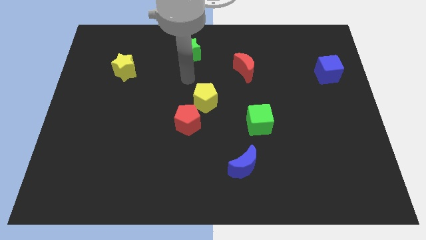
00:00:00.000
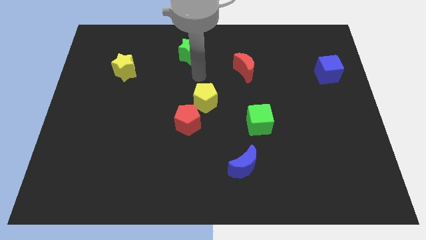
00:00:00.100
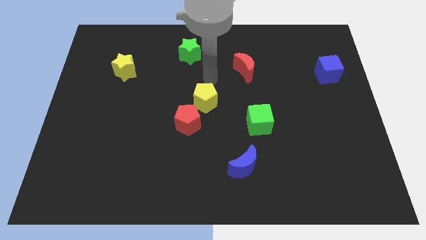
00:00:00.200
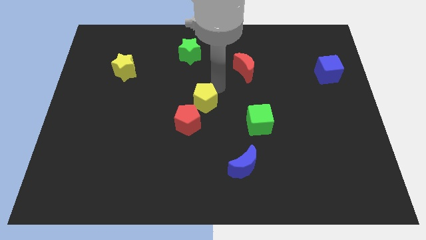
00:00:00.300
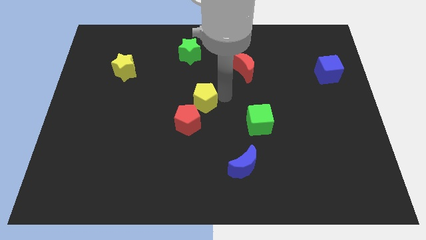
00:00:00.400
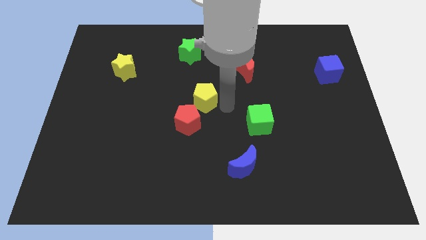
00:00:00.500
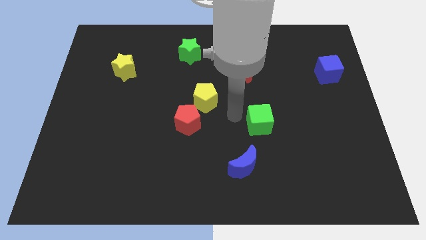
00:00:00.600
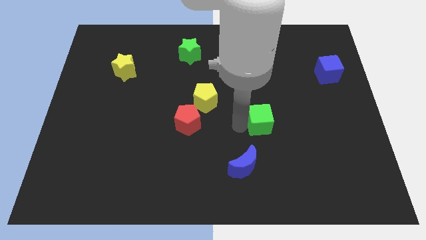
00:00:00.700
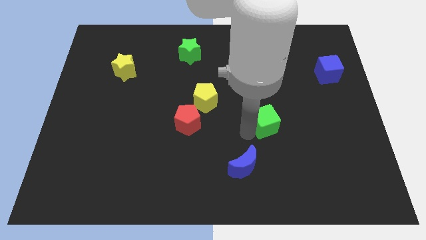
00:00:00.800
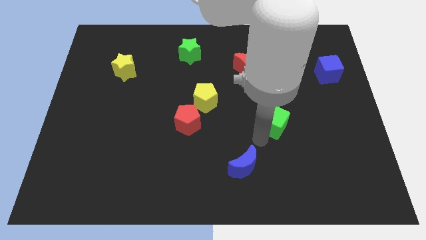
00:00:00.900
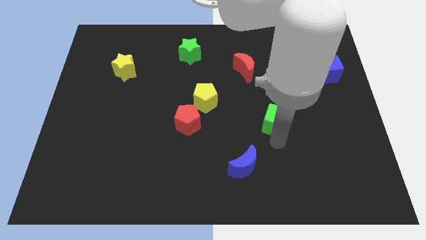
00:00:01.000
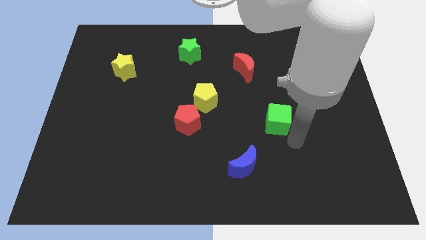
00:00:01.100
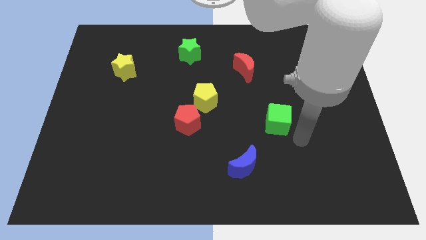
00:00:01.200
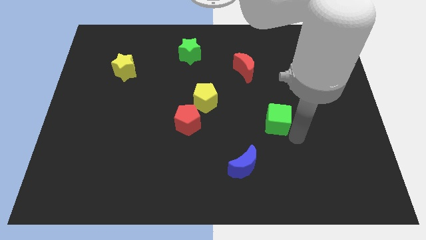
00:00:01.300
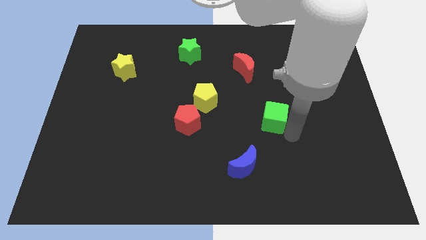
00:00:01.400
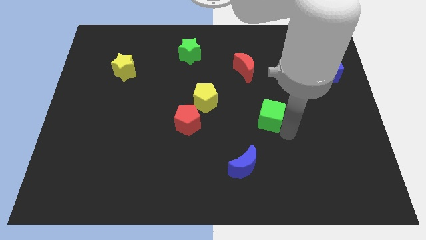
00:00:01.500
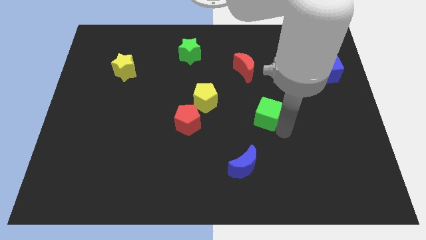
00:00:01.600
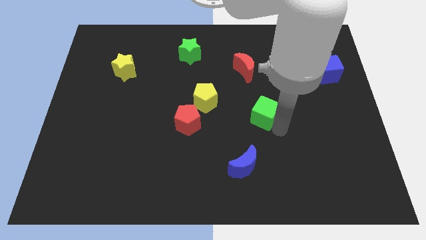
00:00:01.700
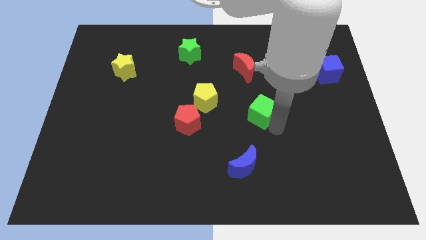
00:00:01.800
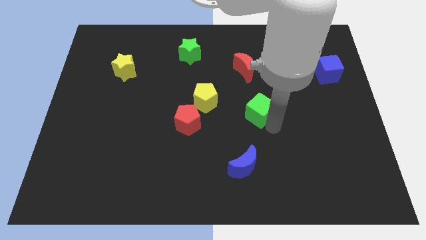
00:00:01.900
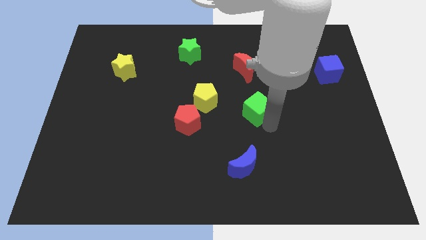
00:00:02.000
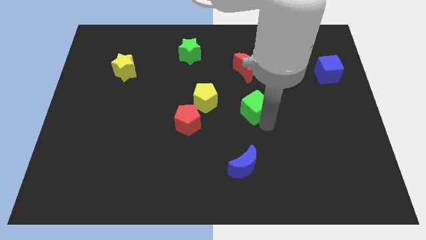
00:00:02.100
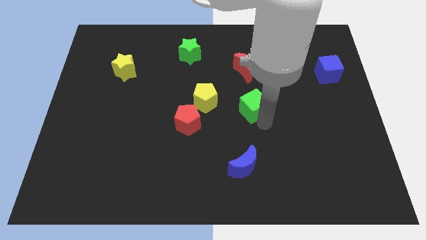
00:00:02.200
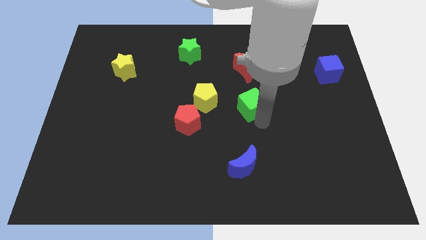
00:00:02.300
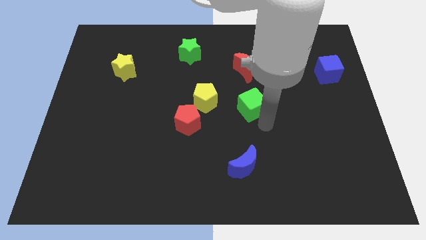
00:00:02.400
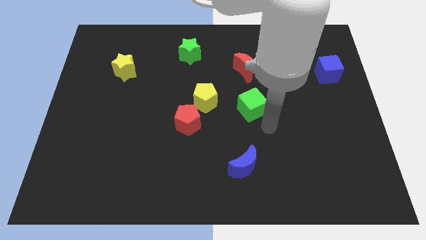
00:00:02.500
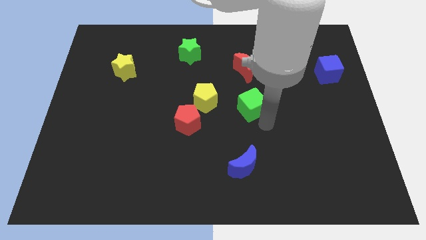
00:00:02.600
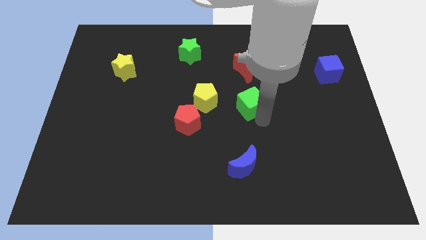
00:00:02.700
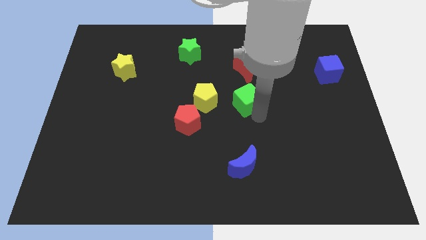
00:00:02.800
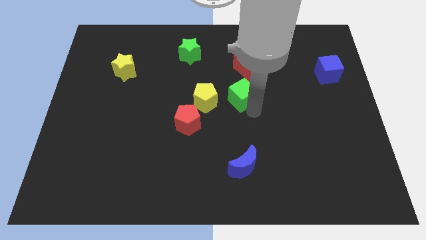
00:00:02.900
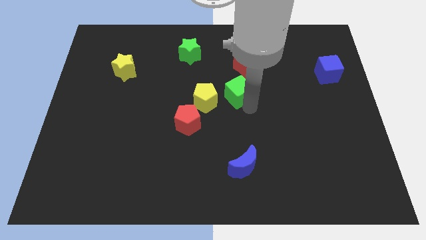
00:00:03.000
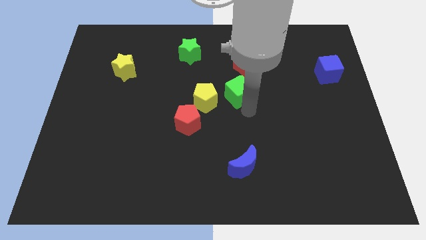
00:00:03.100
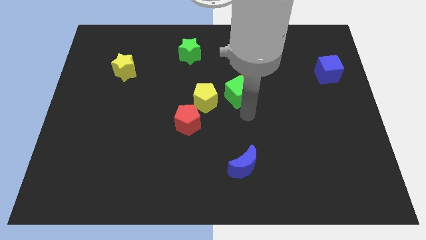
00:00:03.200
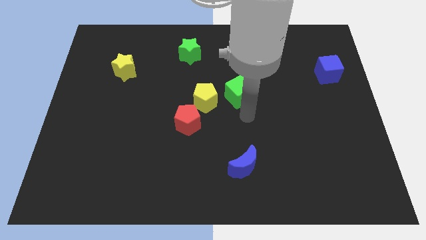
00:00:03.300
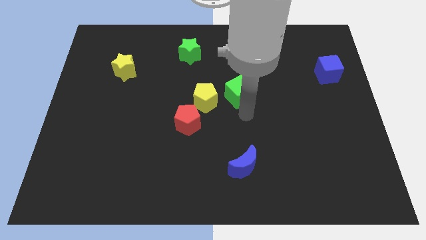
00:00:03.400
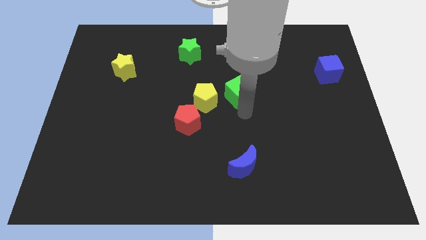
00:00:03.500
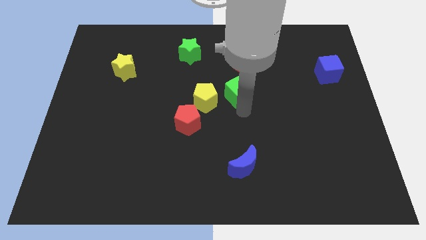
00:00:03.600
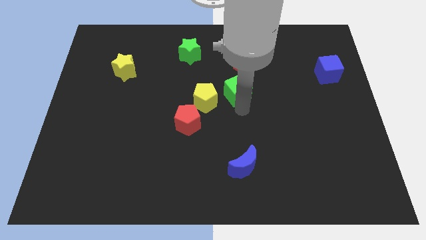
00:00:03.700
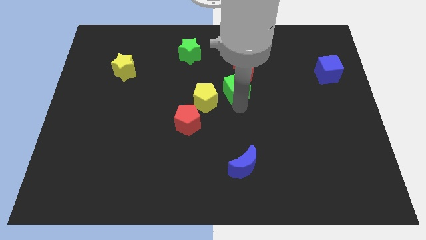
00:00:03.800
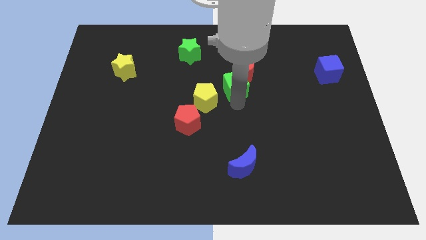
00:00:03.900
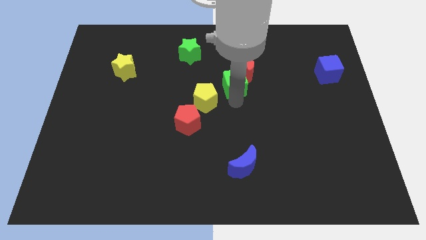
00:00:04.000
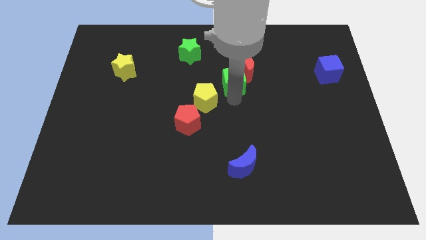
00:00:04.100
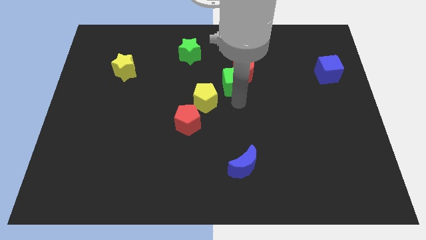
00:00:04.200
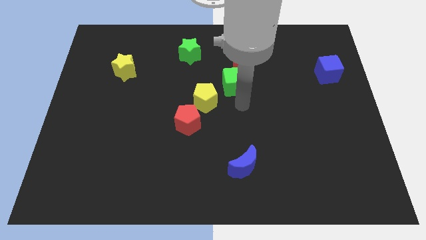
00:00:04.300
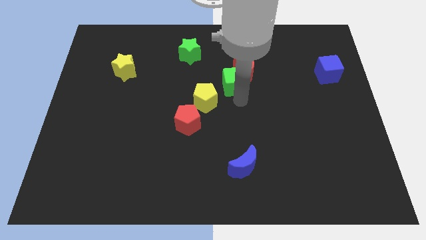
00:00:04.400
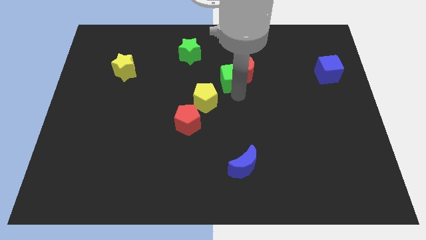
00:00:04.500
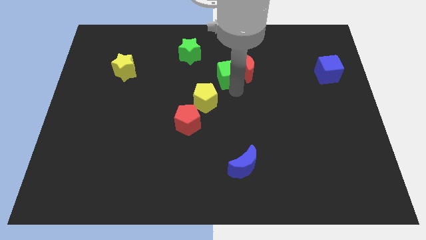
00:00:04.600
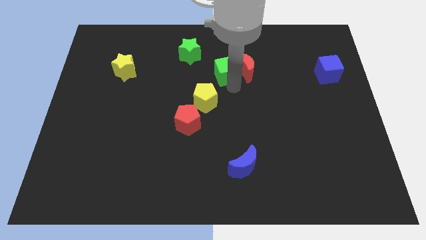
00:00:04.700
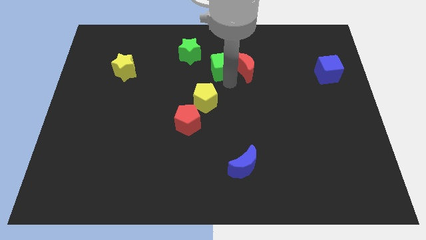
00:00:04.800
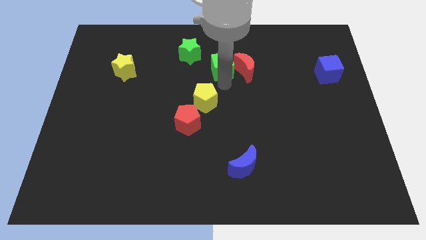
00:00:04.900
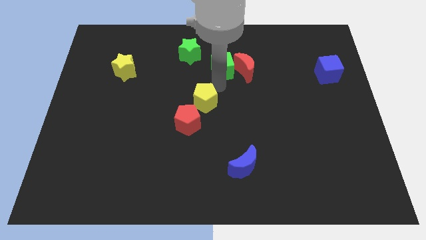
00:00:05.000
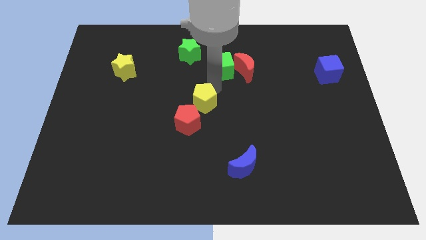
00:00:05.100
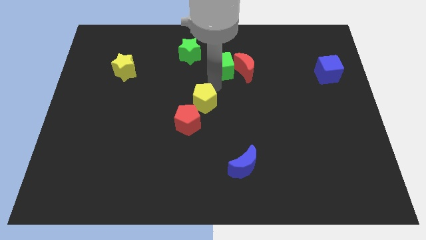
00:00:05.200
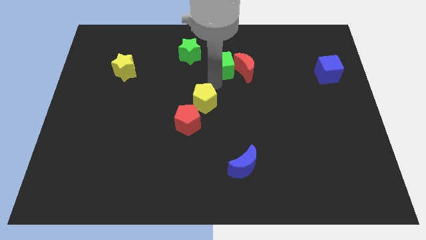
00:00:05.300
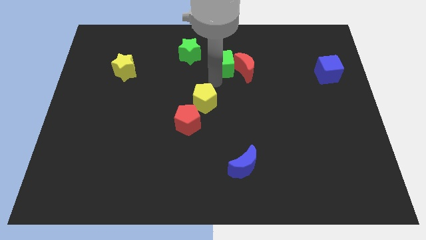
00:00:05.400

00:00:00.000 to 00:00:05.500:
put the green cube right of the green star

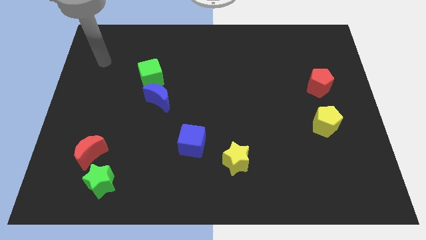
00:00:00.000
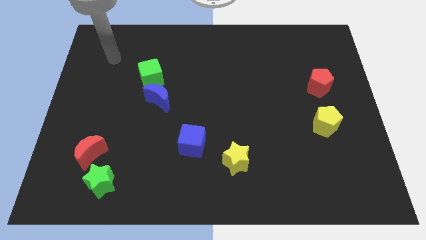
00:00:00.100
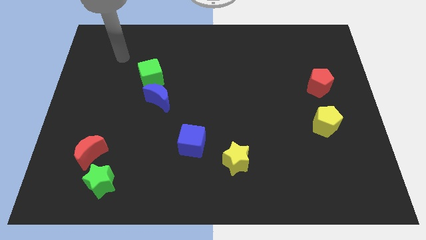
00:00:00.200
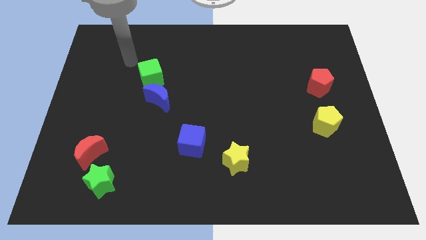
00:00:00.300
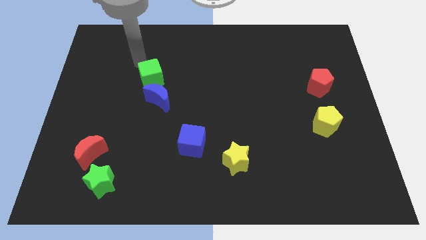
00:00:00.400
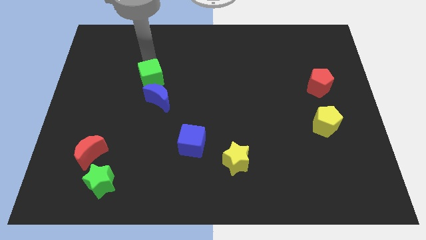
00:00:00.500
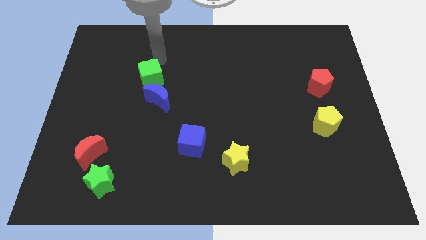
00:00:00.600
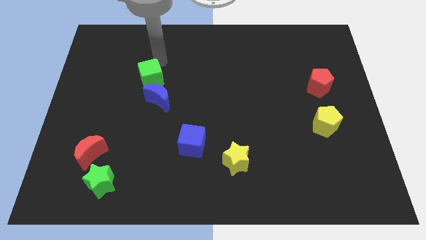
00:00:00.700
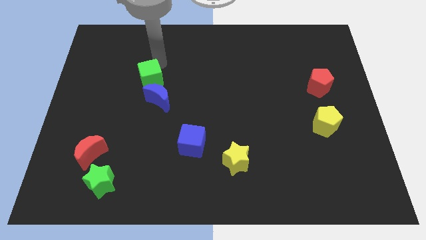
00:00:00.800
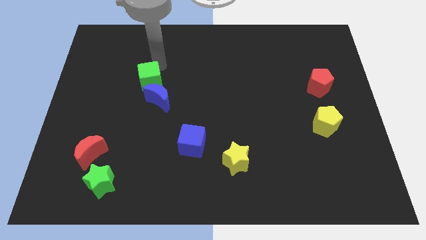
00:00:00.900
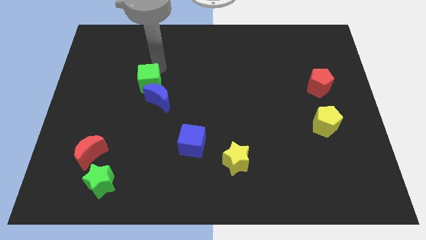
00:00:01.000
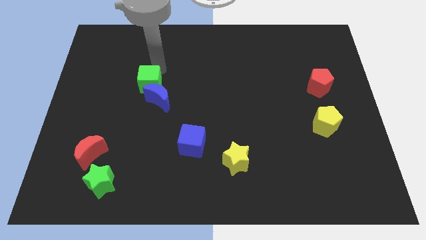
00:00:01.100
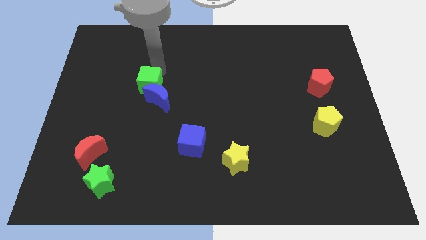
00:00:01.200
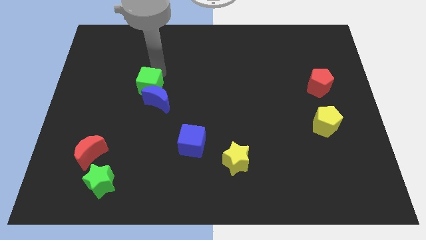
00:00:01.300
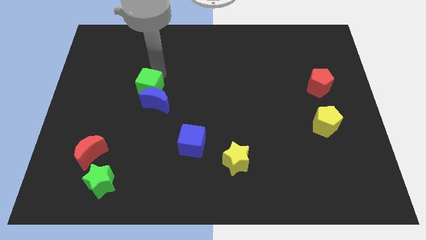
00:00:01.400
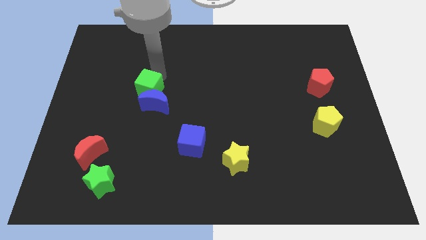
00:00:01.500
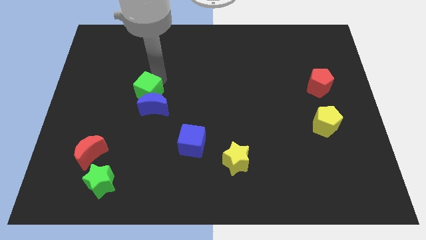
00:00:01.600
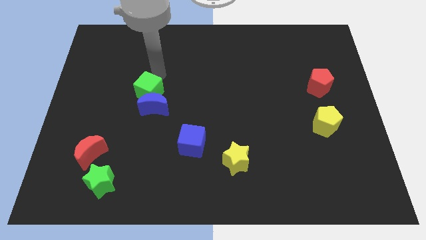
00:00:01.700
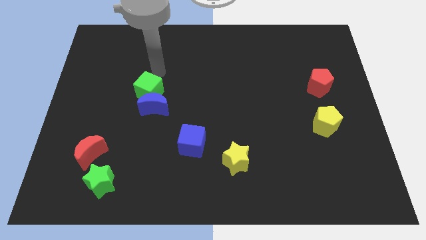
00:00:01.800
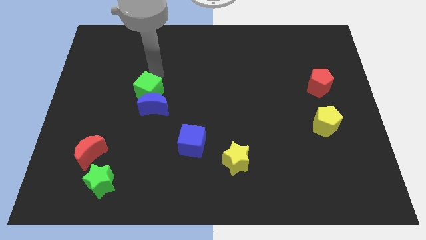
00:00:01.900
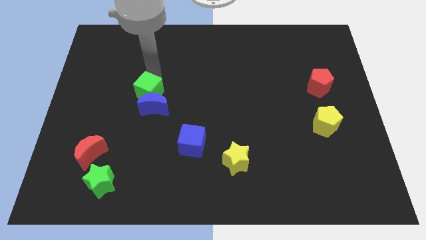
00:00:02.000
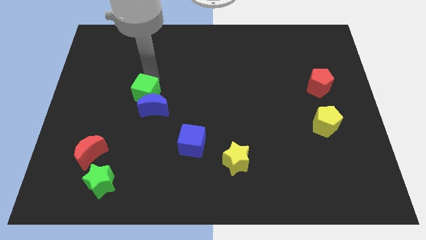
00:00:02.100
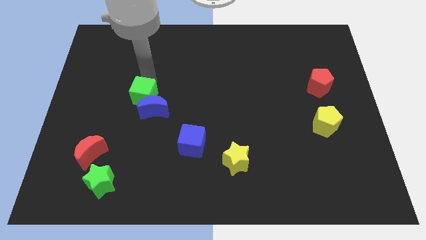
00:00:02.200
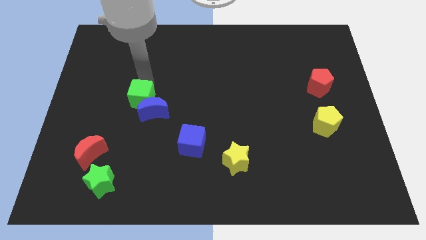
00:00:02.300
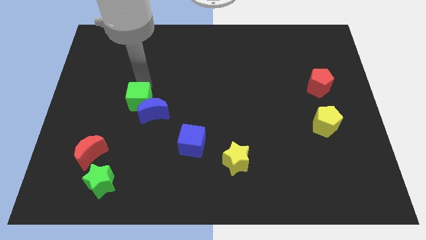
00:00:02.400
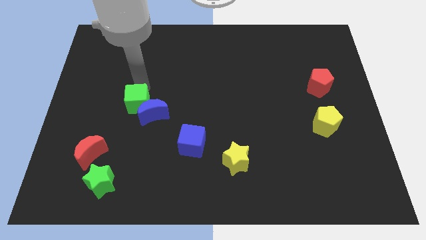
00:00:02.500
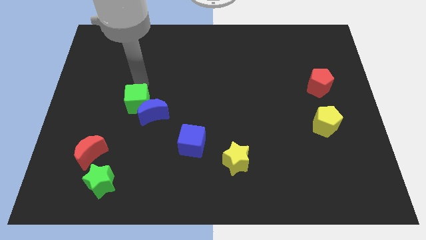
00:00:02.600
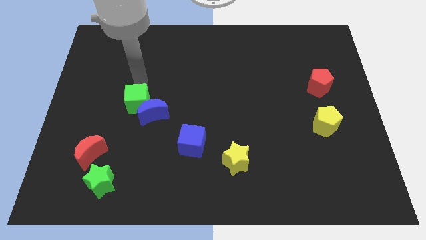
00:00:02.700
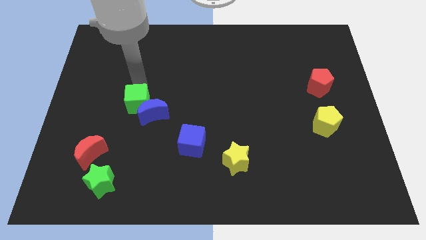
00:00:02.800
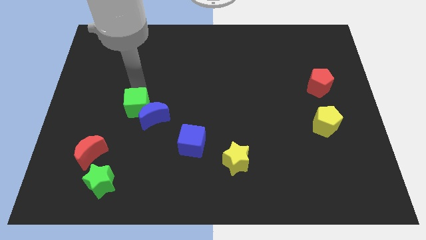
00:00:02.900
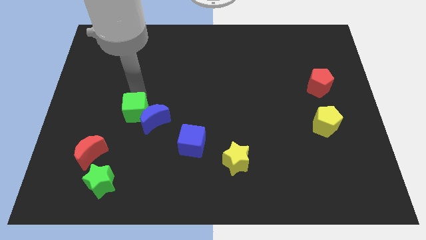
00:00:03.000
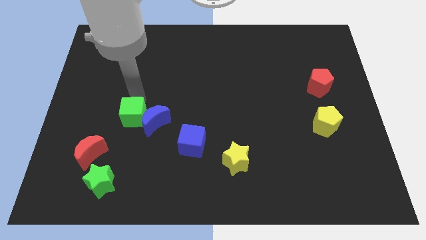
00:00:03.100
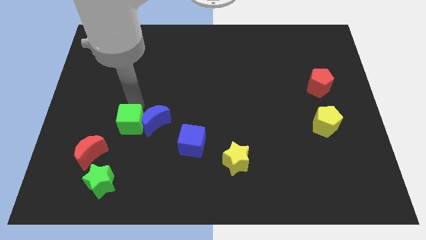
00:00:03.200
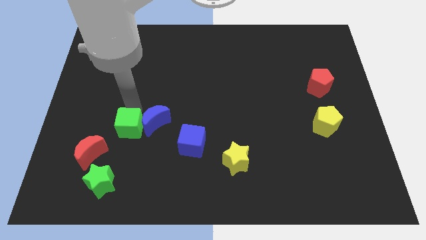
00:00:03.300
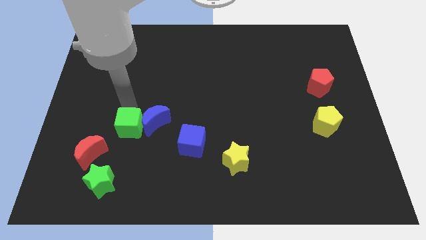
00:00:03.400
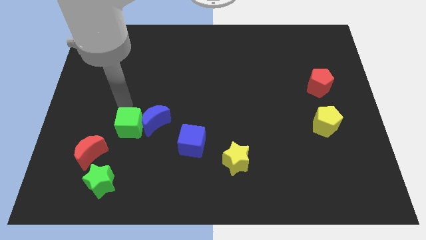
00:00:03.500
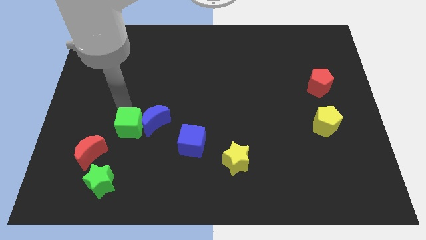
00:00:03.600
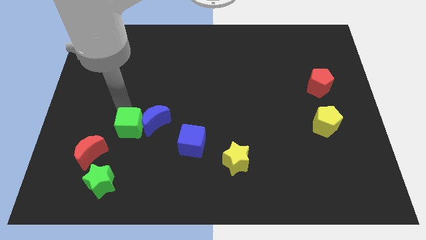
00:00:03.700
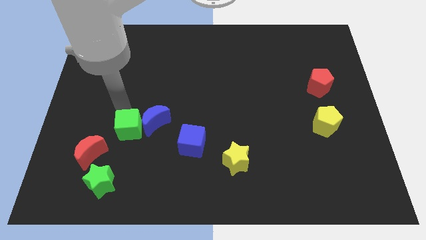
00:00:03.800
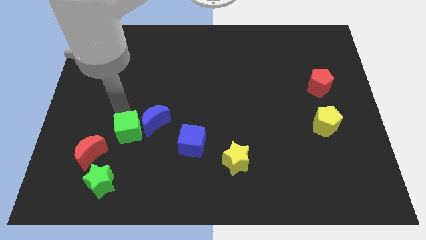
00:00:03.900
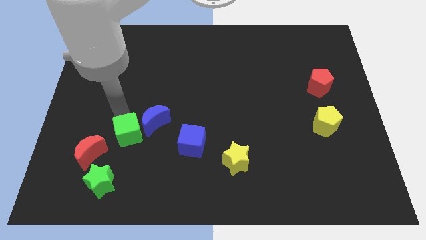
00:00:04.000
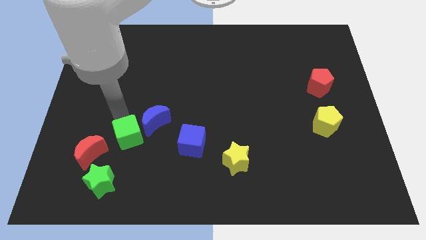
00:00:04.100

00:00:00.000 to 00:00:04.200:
put the green cube just right of the red moon
